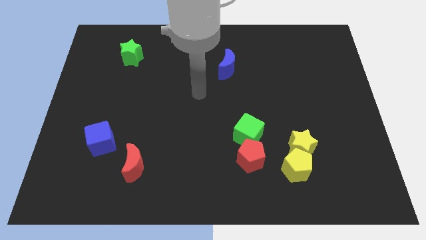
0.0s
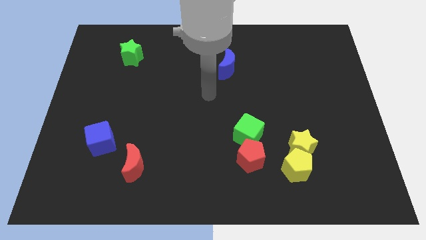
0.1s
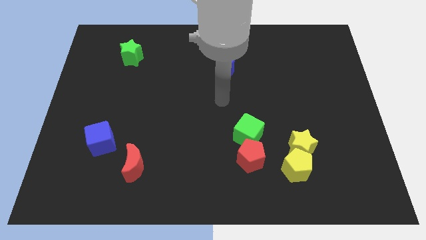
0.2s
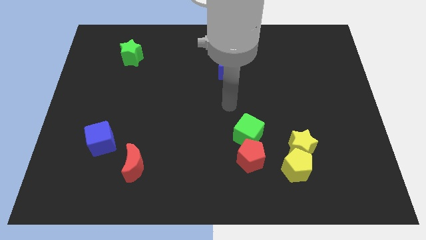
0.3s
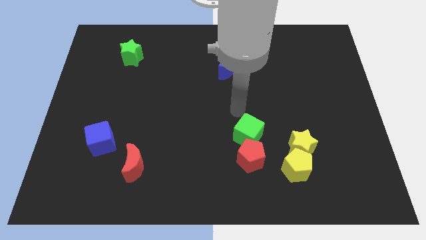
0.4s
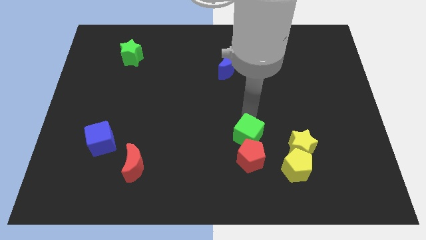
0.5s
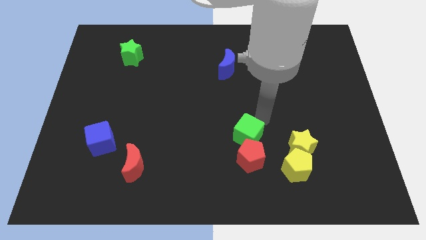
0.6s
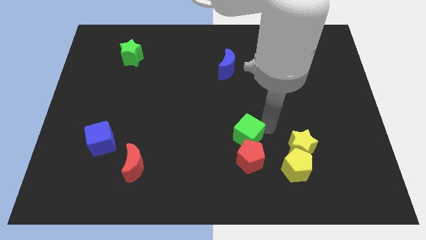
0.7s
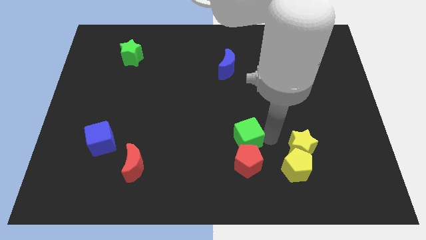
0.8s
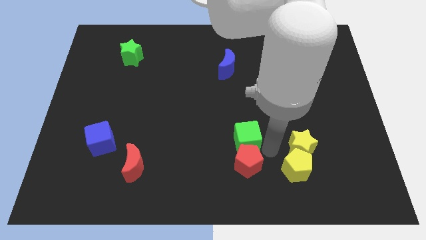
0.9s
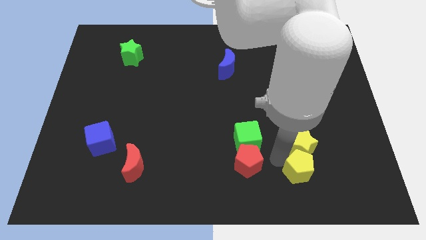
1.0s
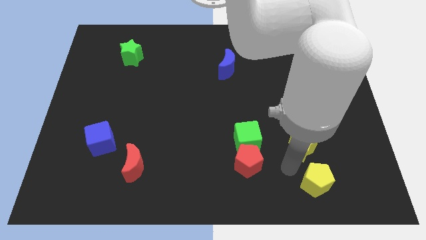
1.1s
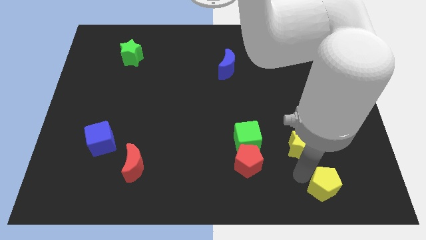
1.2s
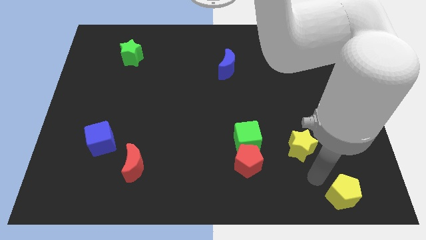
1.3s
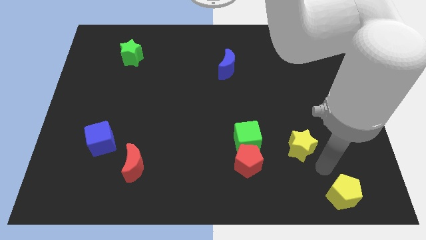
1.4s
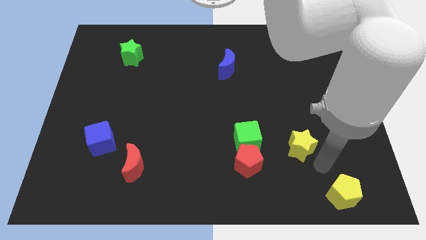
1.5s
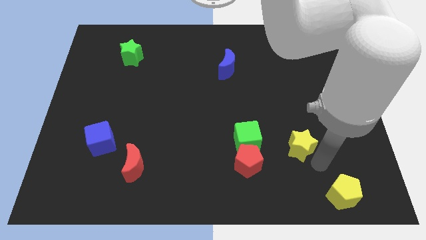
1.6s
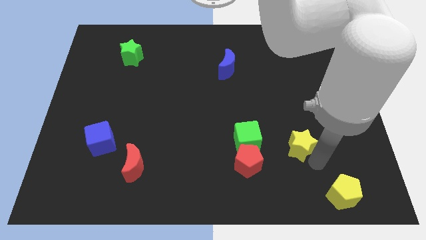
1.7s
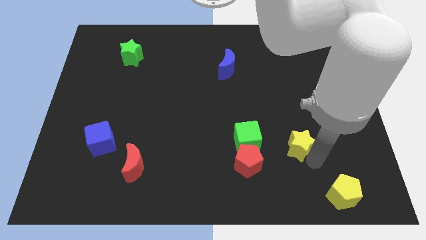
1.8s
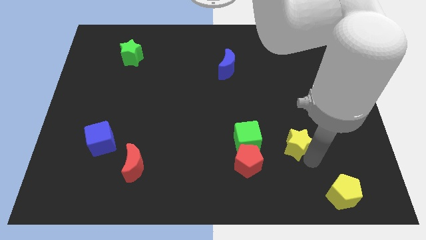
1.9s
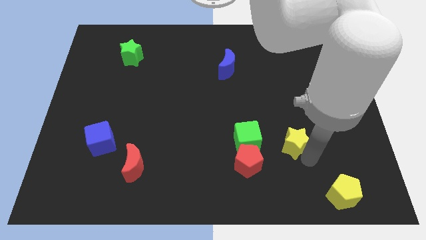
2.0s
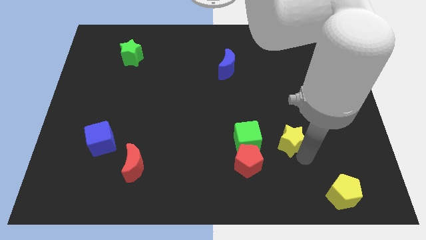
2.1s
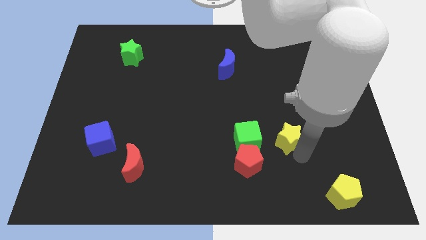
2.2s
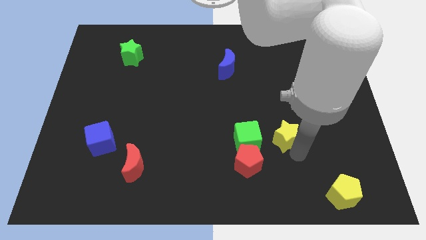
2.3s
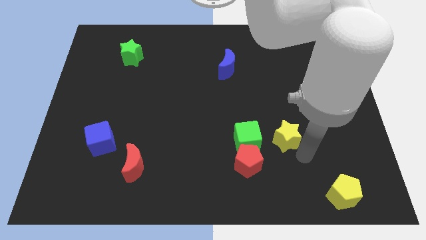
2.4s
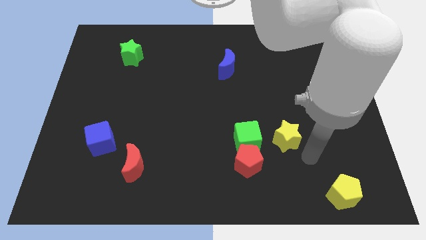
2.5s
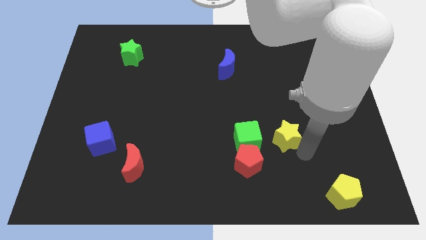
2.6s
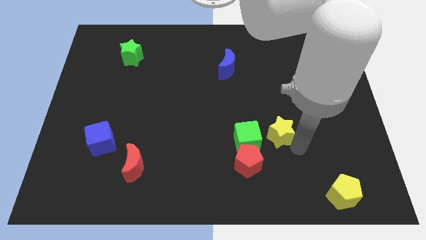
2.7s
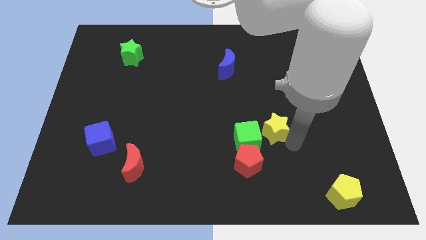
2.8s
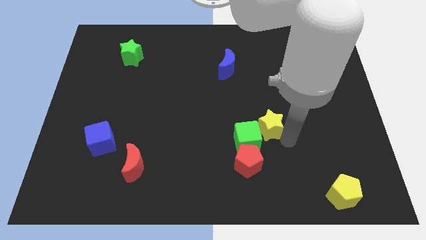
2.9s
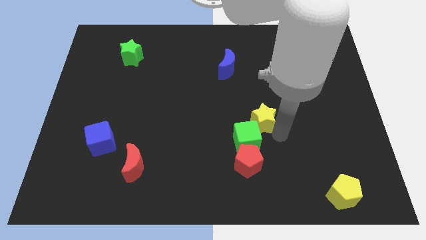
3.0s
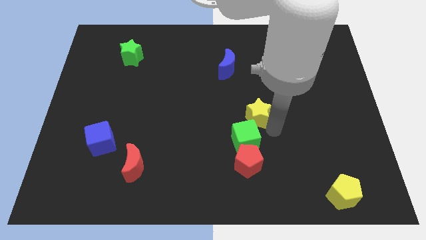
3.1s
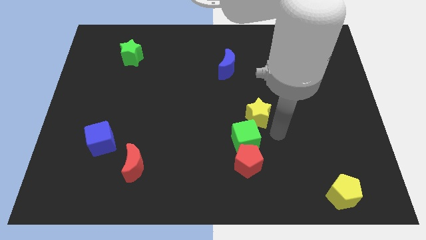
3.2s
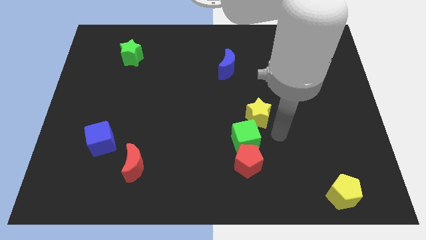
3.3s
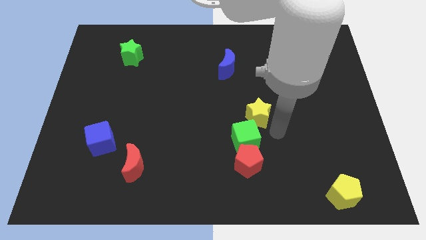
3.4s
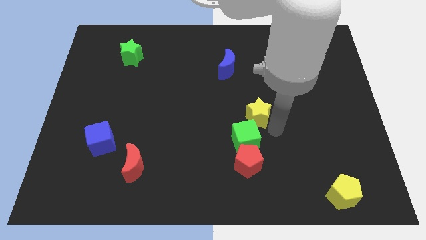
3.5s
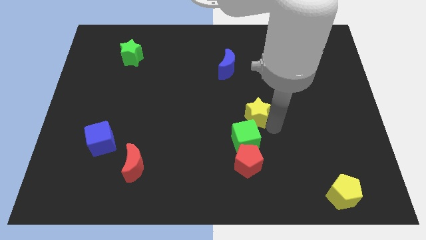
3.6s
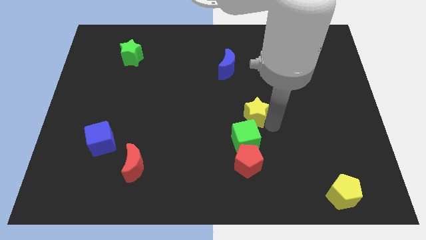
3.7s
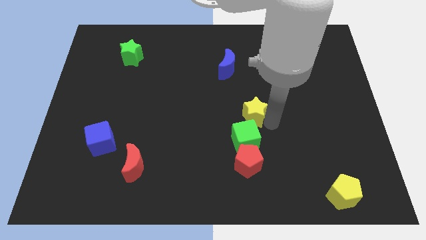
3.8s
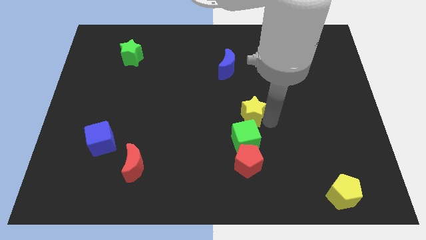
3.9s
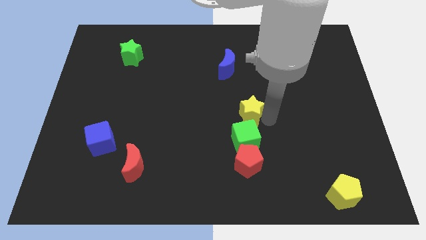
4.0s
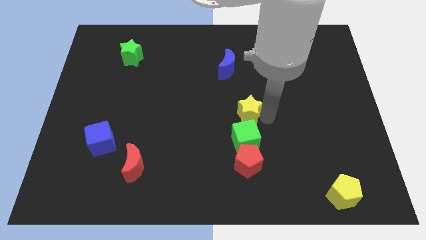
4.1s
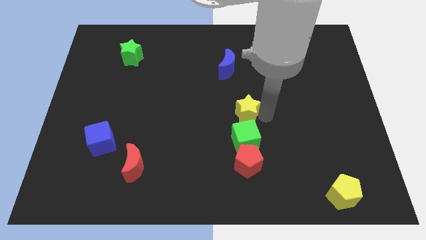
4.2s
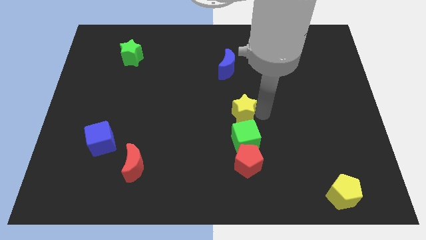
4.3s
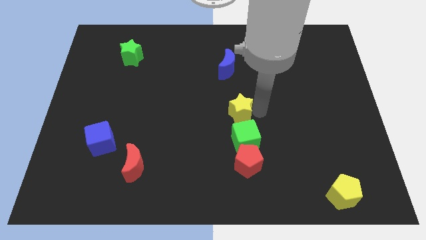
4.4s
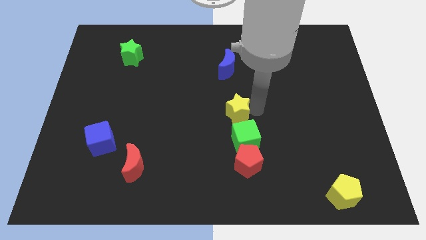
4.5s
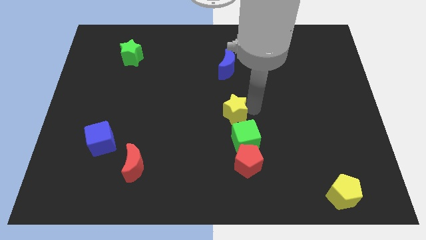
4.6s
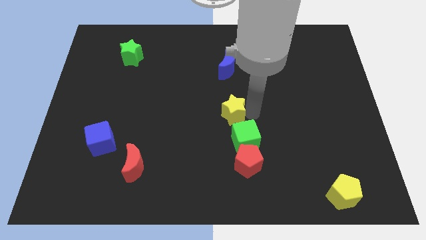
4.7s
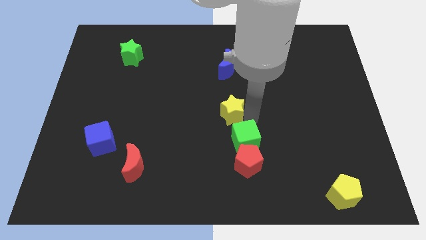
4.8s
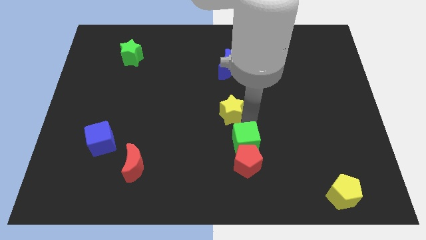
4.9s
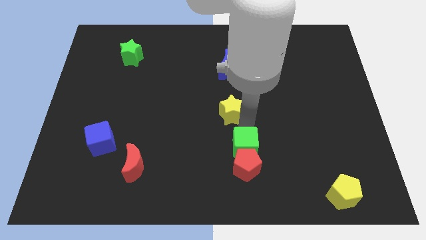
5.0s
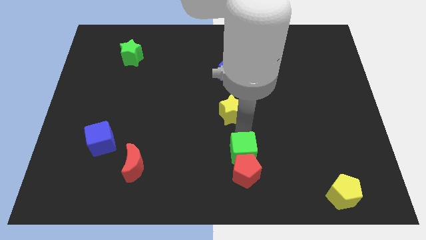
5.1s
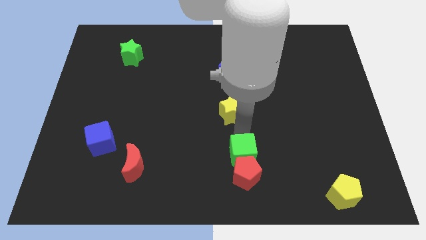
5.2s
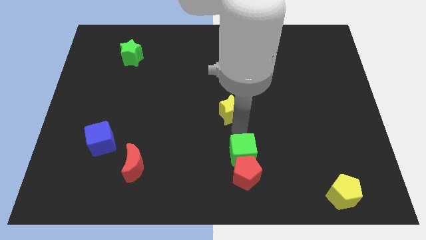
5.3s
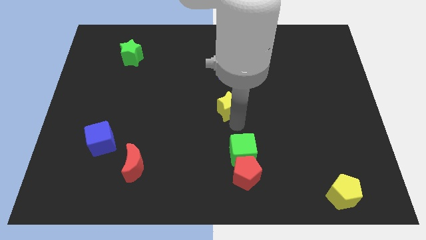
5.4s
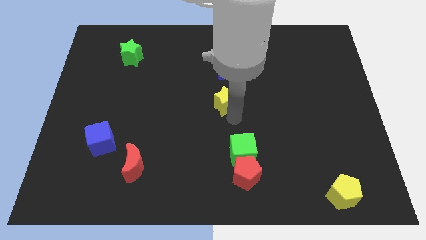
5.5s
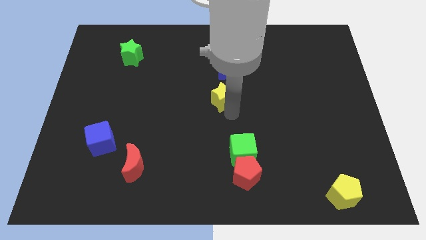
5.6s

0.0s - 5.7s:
push the yellow star up and then to the left

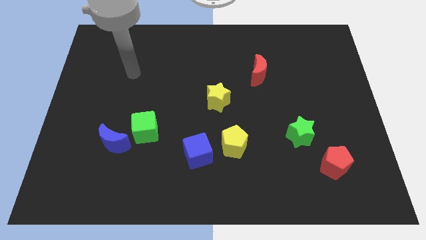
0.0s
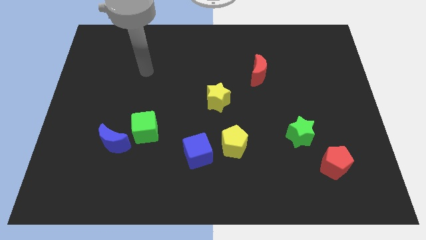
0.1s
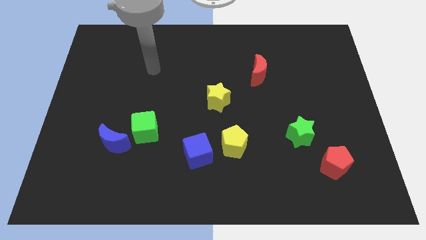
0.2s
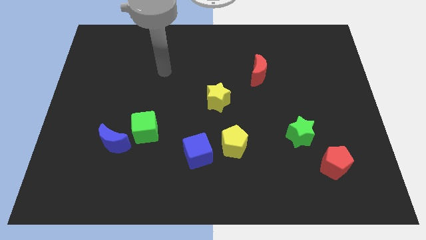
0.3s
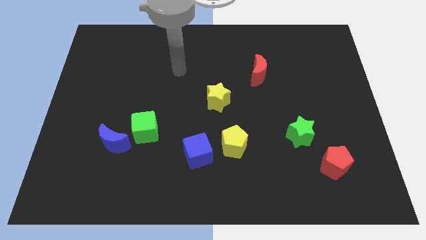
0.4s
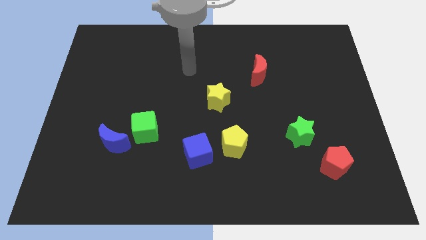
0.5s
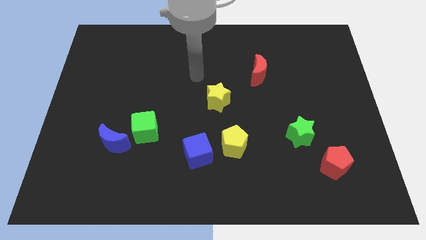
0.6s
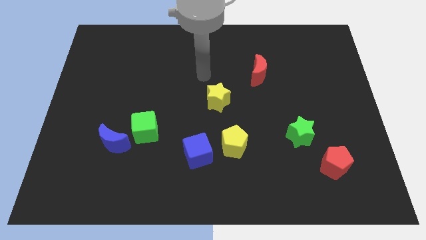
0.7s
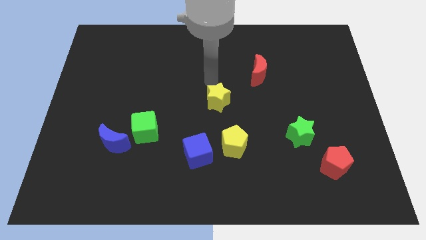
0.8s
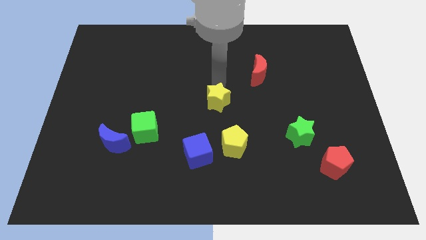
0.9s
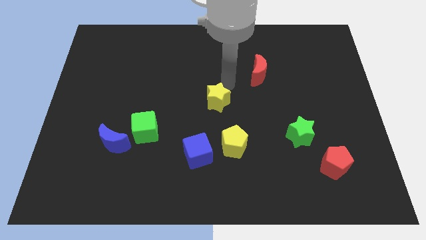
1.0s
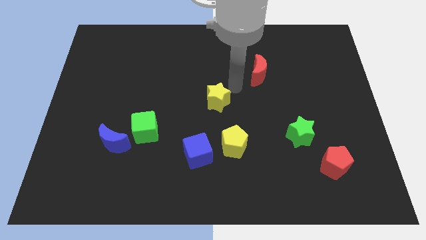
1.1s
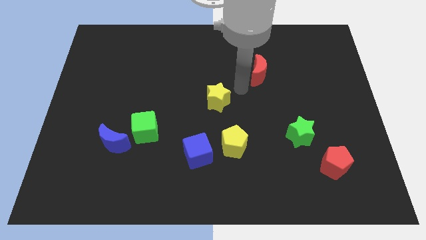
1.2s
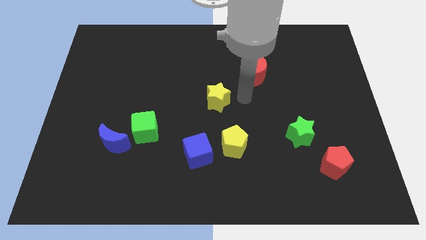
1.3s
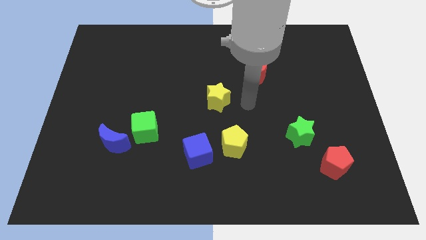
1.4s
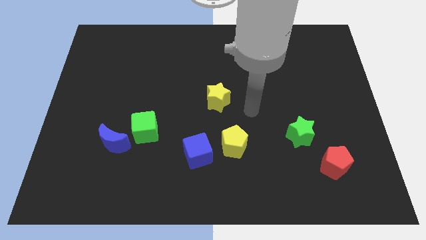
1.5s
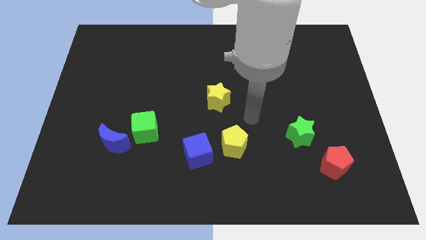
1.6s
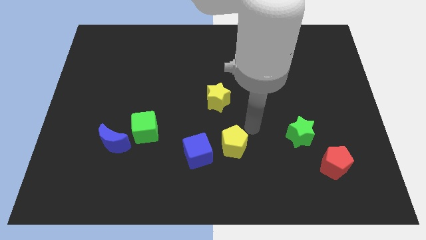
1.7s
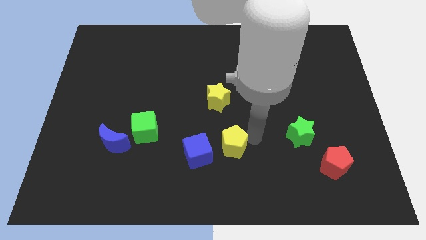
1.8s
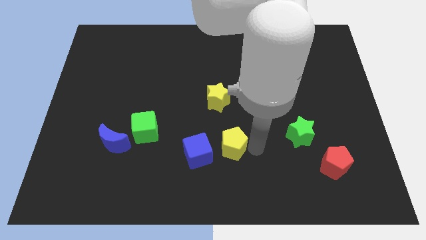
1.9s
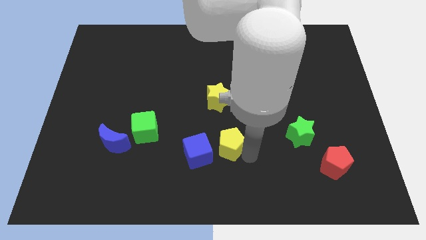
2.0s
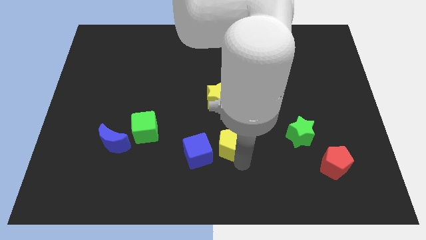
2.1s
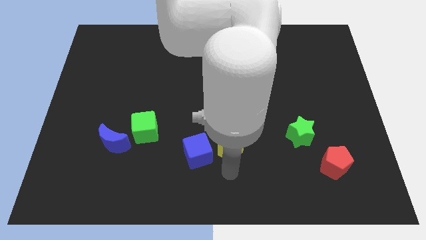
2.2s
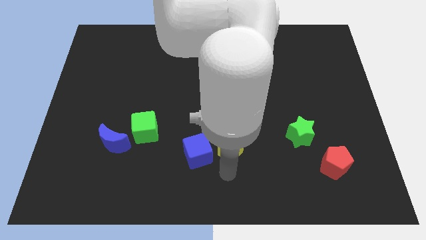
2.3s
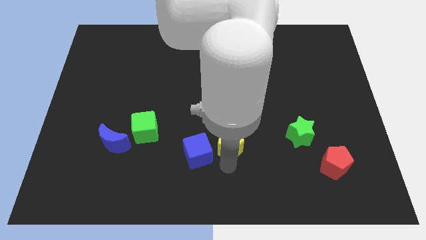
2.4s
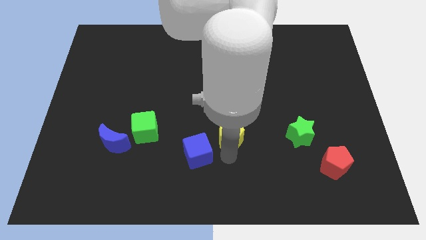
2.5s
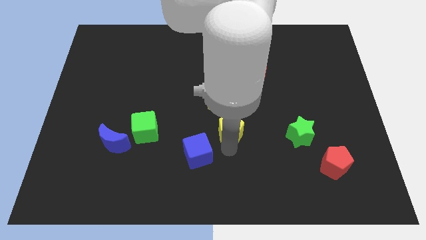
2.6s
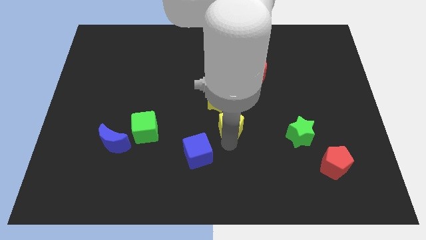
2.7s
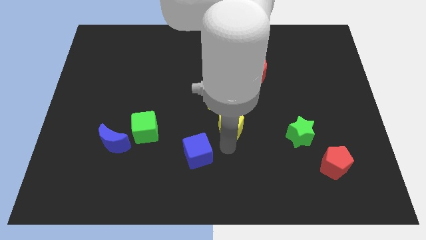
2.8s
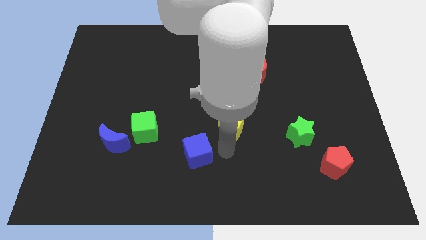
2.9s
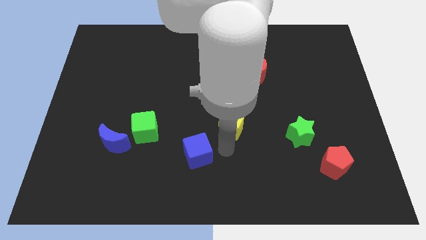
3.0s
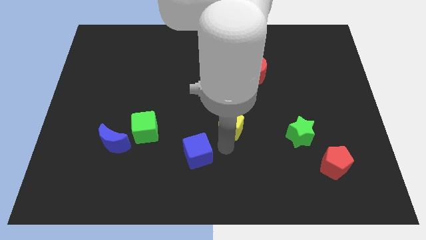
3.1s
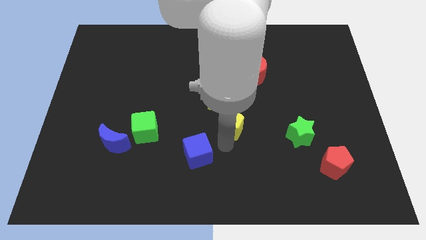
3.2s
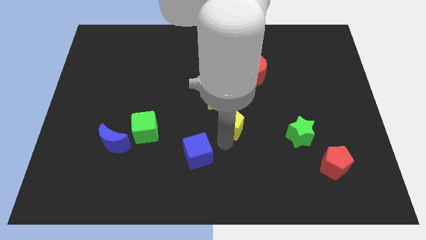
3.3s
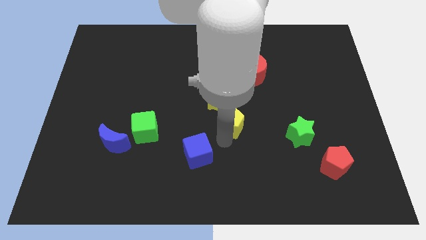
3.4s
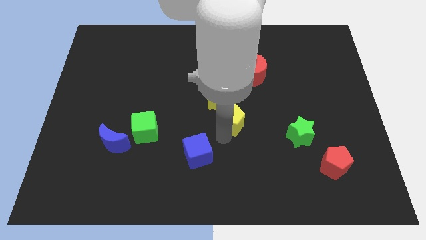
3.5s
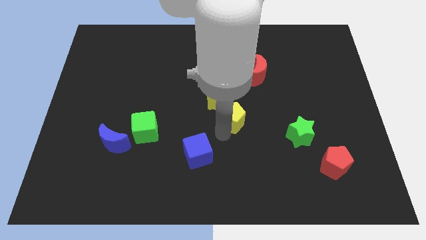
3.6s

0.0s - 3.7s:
slide the yellow pentagon a little upwards
